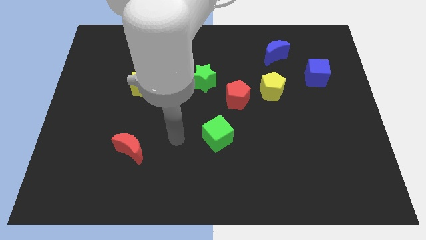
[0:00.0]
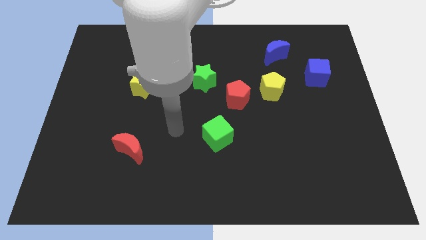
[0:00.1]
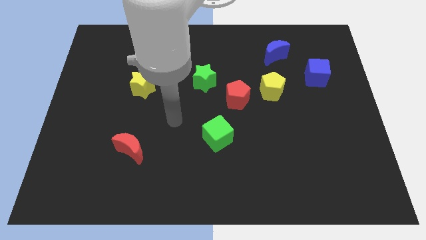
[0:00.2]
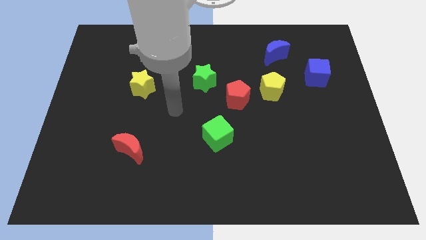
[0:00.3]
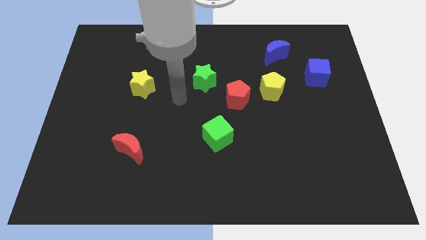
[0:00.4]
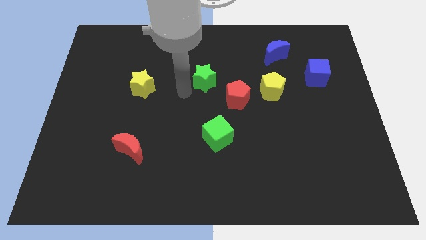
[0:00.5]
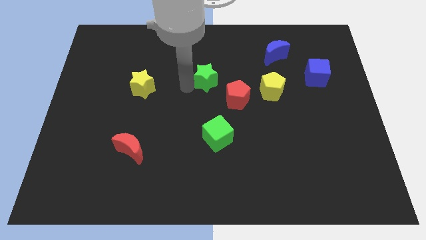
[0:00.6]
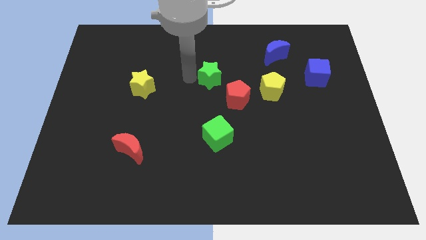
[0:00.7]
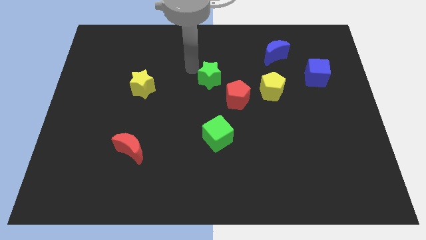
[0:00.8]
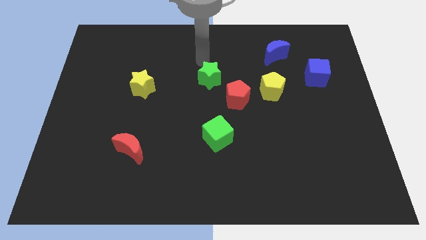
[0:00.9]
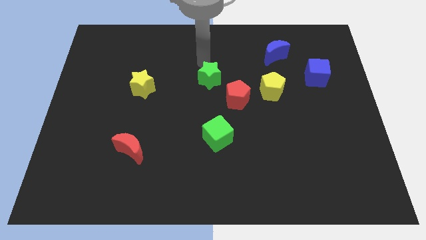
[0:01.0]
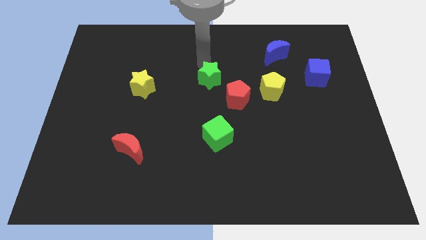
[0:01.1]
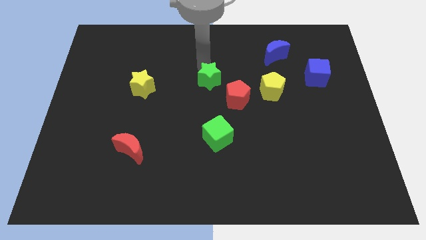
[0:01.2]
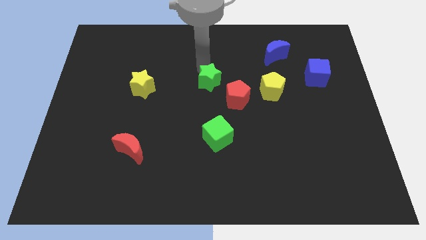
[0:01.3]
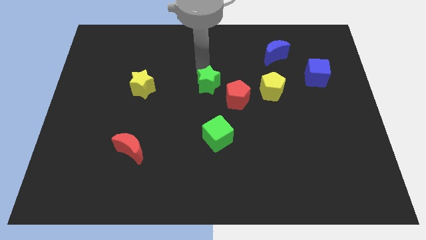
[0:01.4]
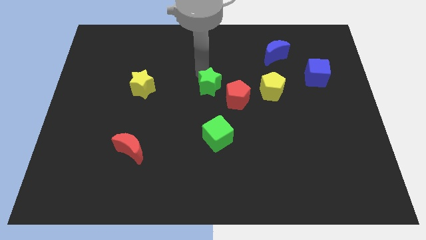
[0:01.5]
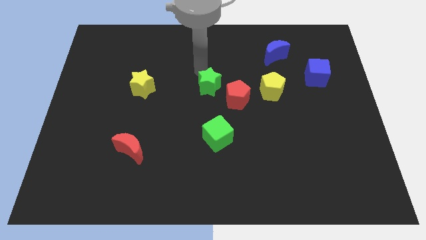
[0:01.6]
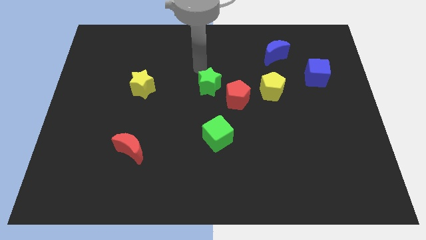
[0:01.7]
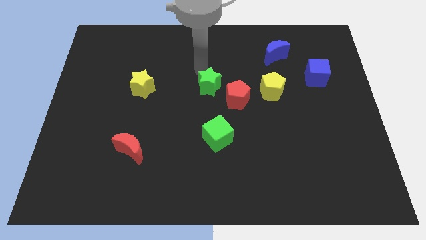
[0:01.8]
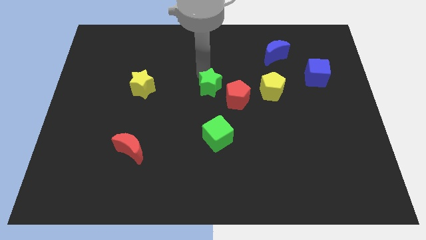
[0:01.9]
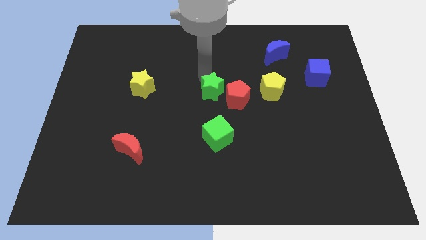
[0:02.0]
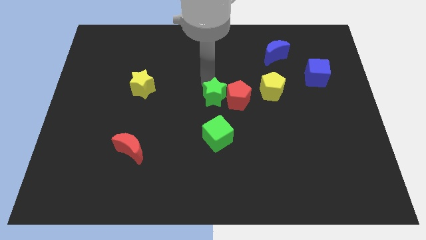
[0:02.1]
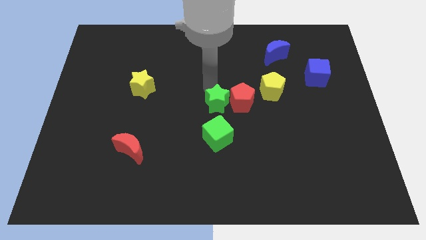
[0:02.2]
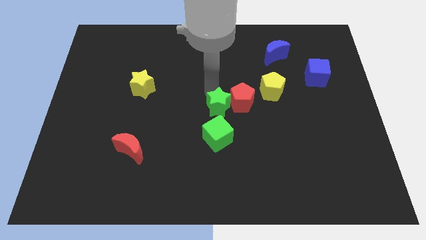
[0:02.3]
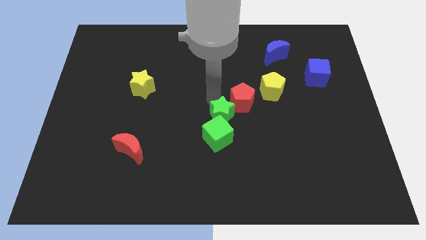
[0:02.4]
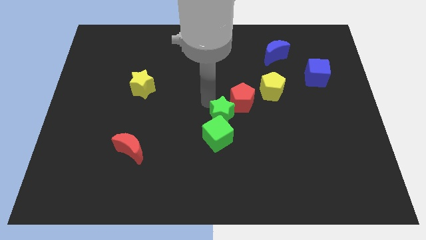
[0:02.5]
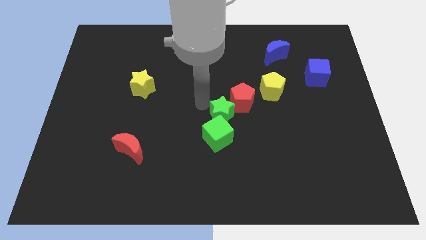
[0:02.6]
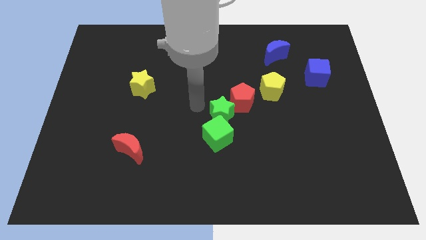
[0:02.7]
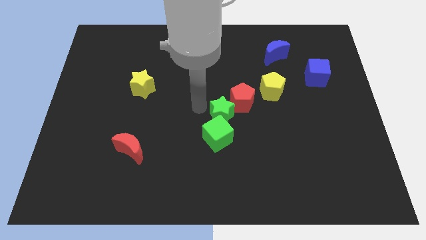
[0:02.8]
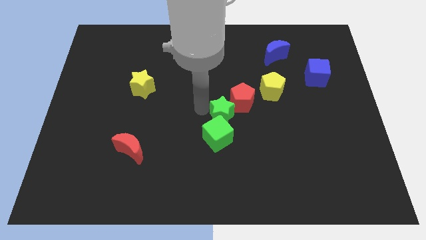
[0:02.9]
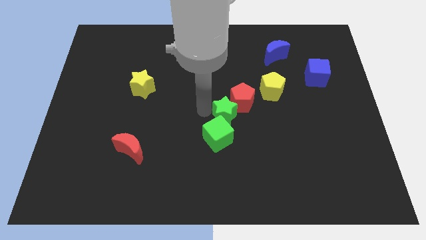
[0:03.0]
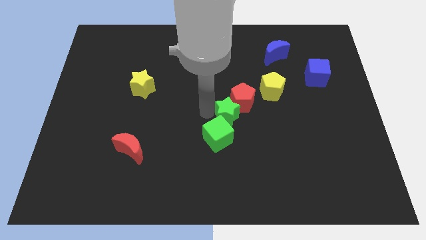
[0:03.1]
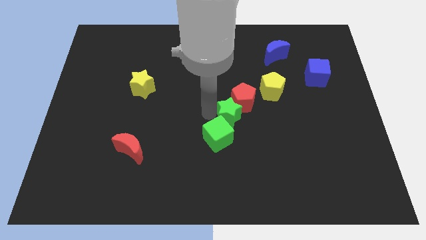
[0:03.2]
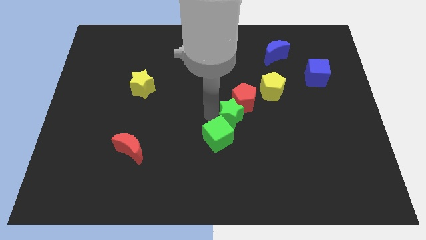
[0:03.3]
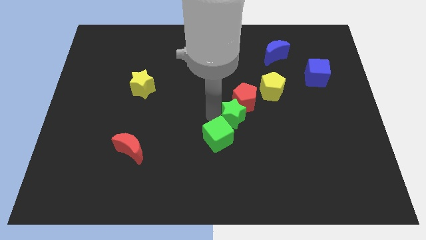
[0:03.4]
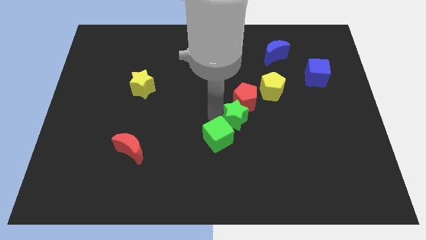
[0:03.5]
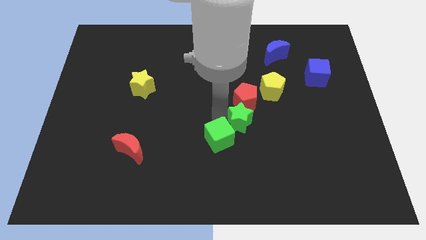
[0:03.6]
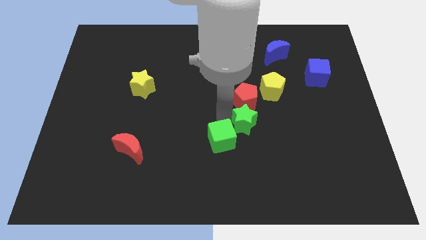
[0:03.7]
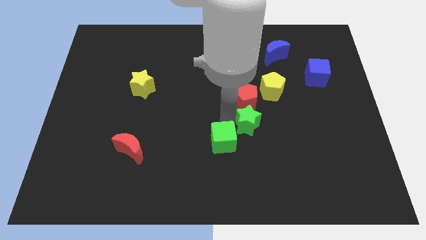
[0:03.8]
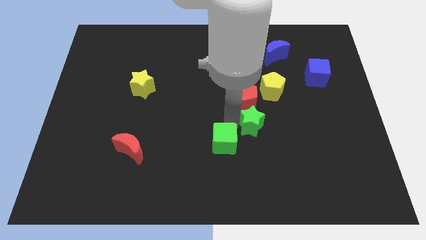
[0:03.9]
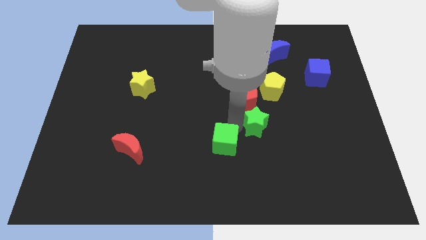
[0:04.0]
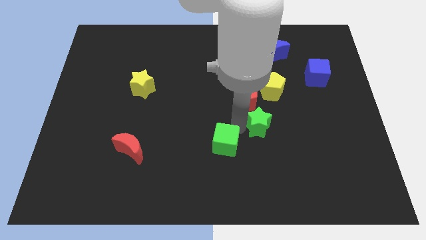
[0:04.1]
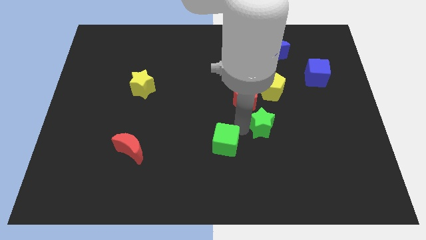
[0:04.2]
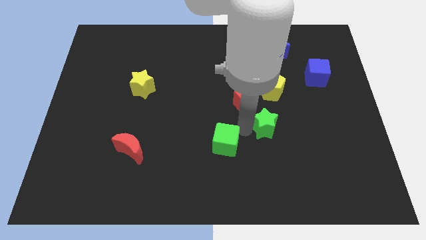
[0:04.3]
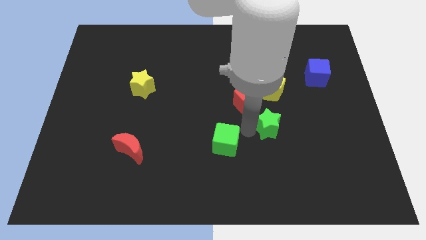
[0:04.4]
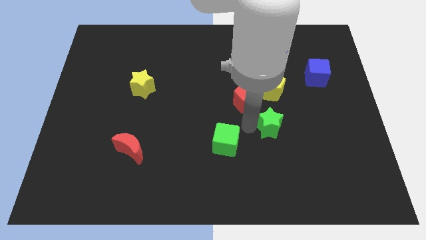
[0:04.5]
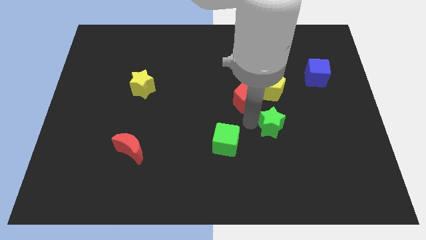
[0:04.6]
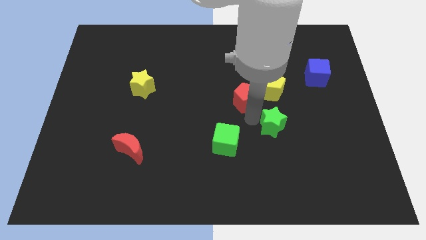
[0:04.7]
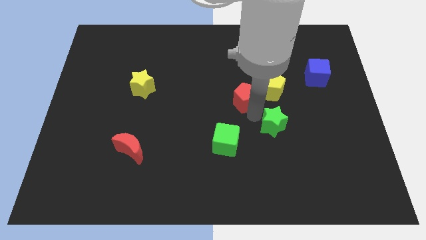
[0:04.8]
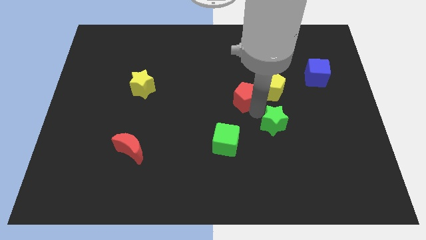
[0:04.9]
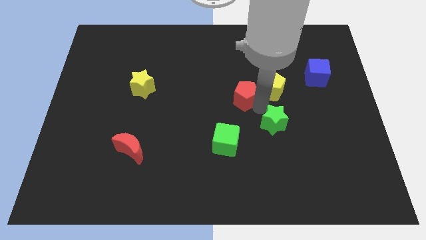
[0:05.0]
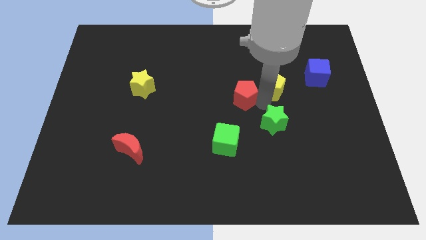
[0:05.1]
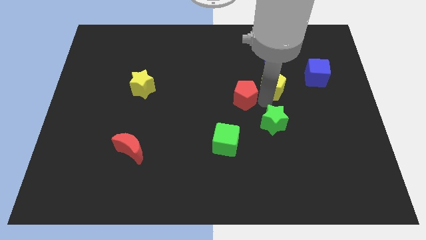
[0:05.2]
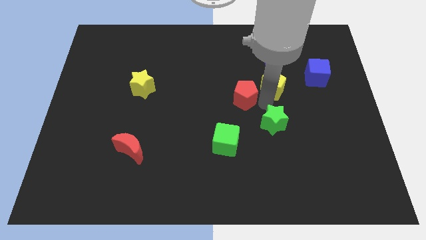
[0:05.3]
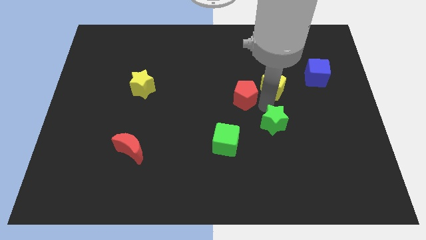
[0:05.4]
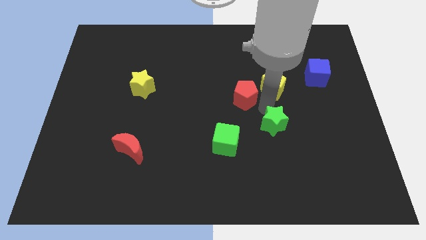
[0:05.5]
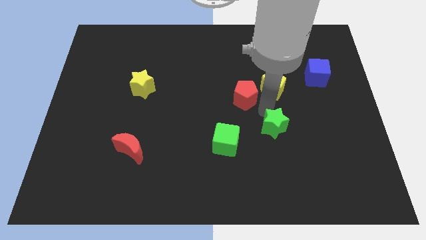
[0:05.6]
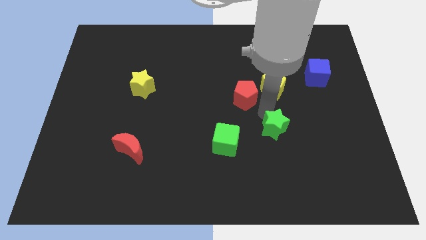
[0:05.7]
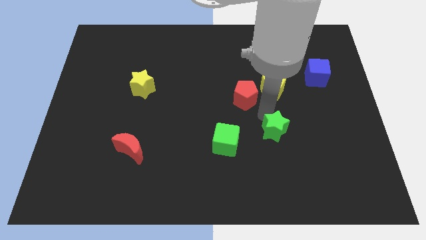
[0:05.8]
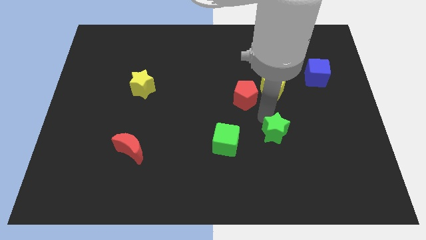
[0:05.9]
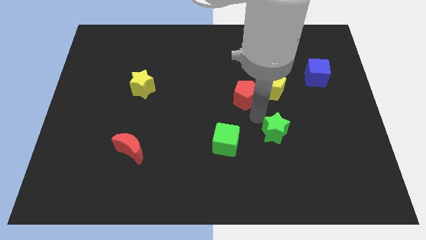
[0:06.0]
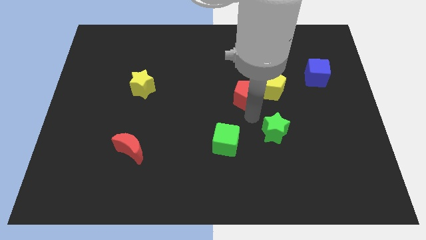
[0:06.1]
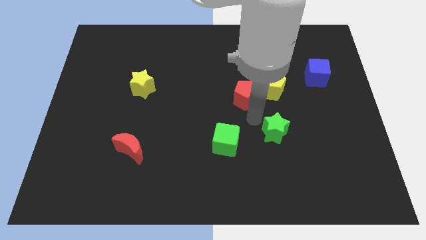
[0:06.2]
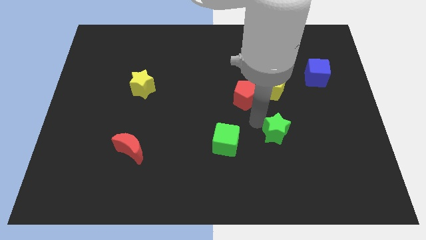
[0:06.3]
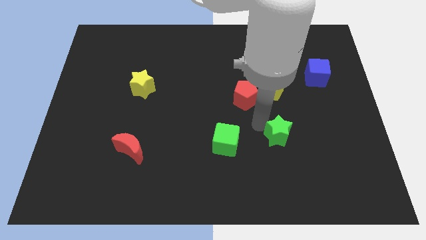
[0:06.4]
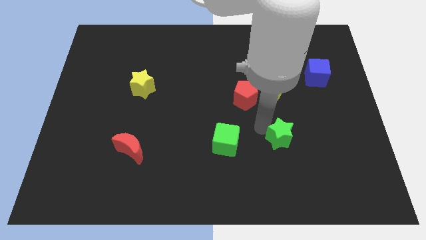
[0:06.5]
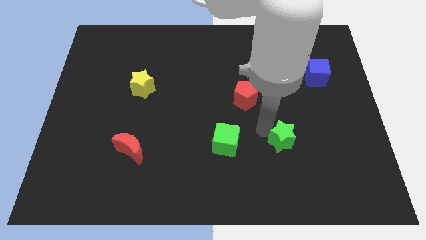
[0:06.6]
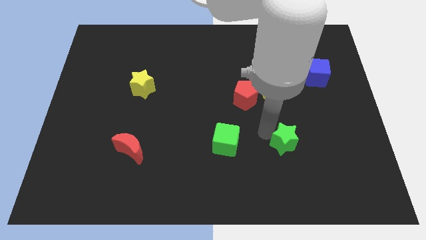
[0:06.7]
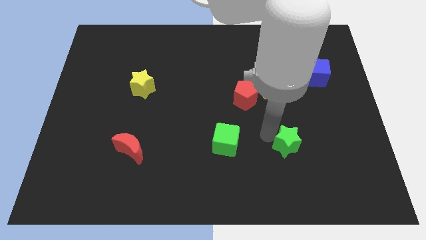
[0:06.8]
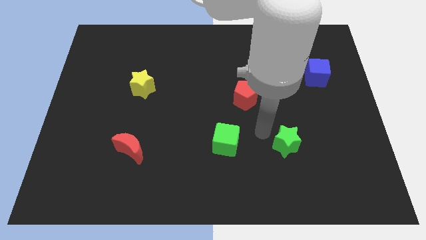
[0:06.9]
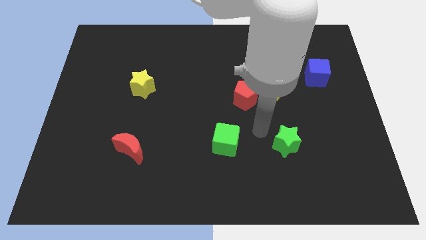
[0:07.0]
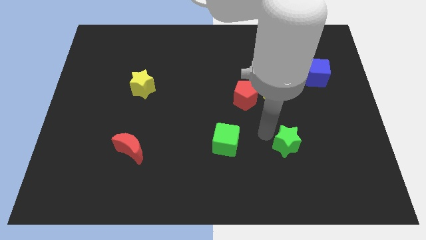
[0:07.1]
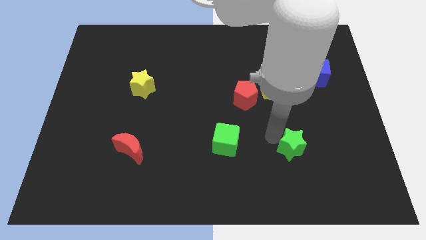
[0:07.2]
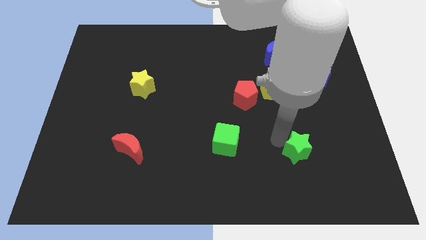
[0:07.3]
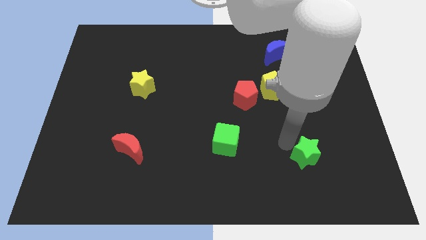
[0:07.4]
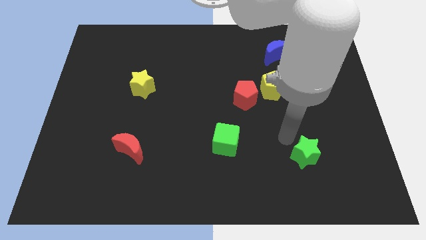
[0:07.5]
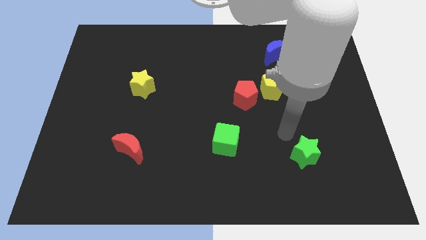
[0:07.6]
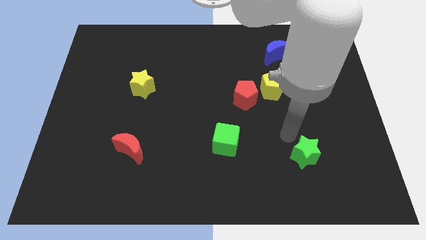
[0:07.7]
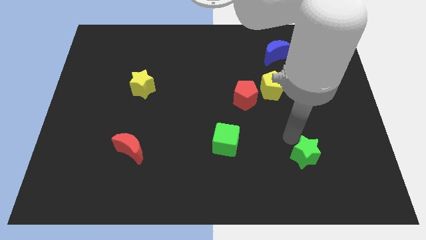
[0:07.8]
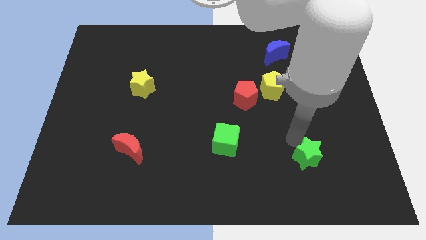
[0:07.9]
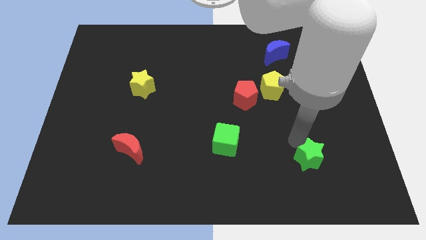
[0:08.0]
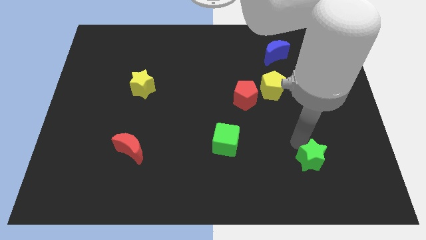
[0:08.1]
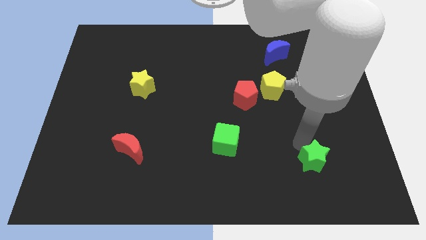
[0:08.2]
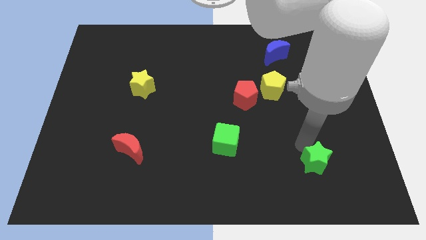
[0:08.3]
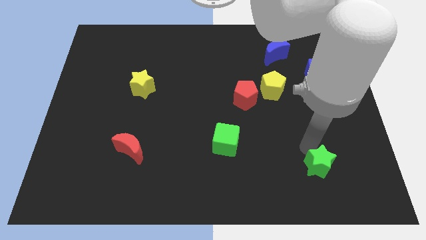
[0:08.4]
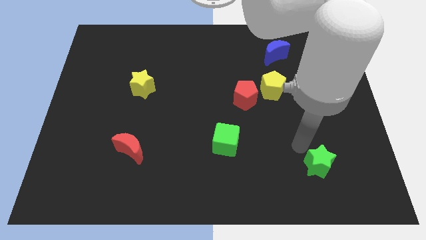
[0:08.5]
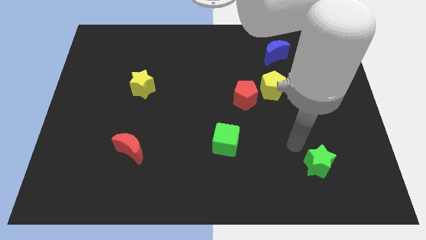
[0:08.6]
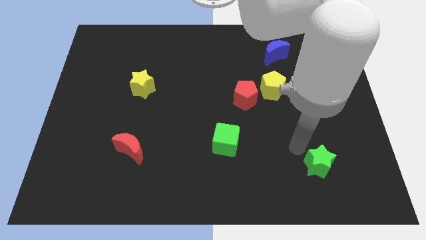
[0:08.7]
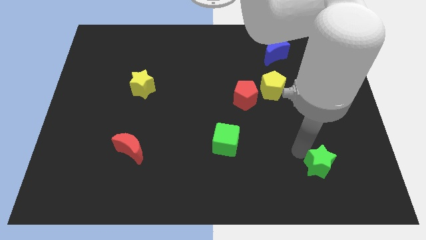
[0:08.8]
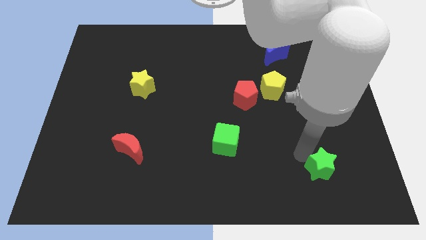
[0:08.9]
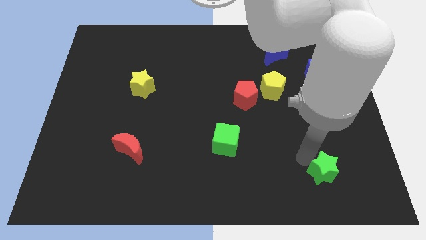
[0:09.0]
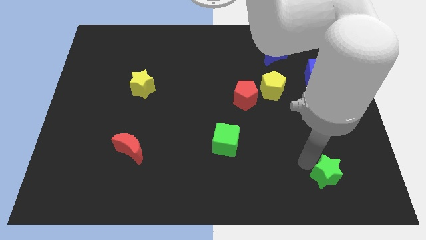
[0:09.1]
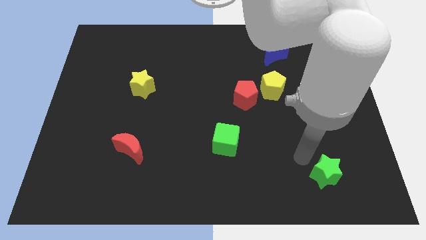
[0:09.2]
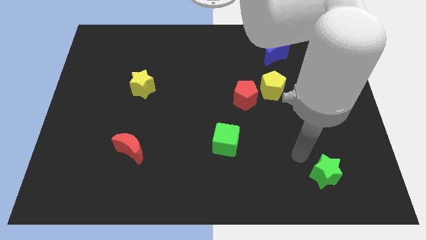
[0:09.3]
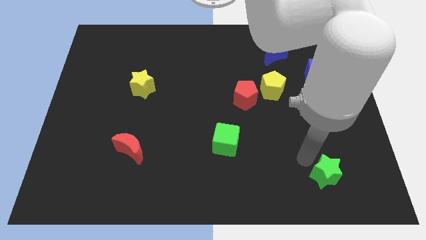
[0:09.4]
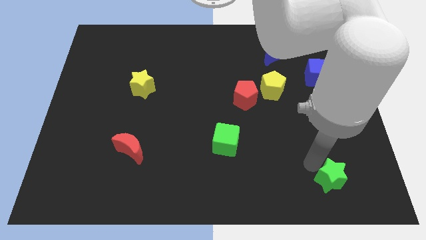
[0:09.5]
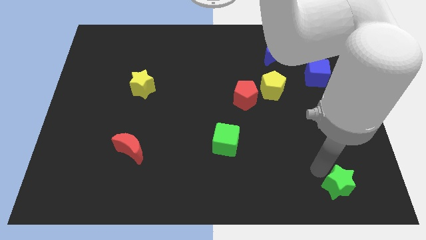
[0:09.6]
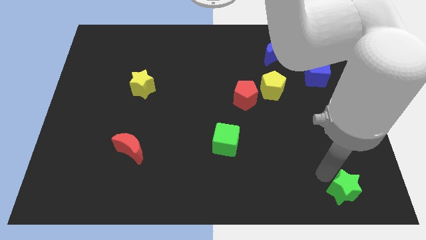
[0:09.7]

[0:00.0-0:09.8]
move the green star to the bottom right corner
